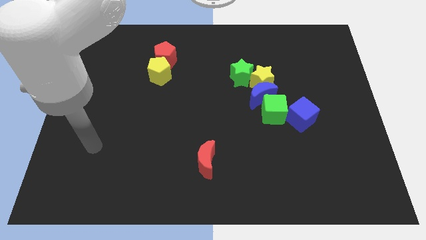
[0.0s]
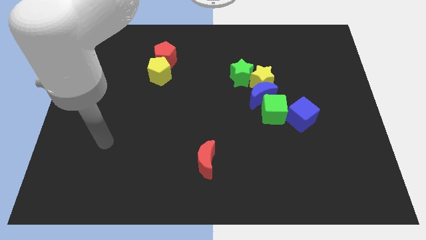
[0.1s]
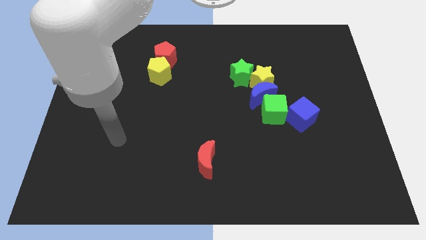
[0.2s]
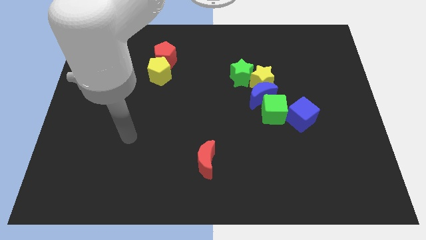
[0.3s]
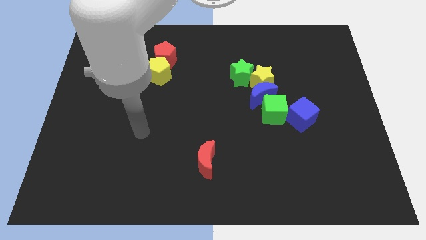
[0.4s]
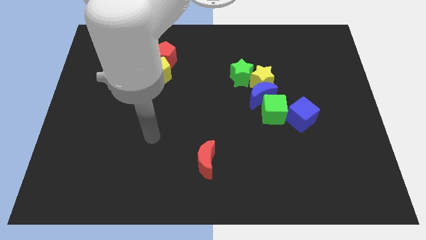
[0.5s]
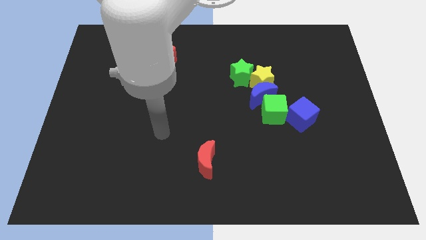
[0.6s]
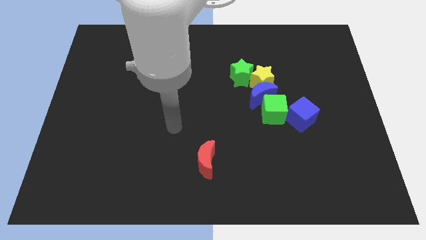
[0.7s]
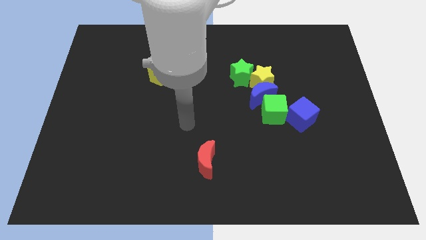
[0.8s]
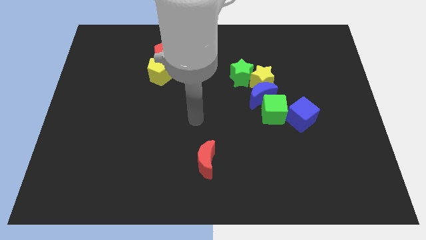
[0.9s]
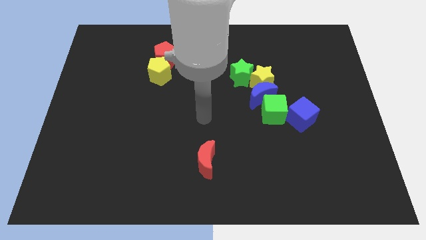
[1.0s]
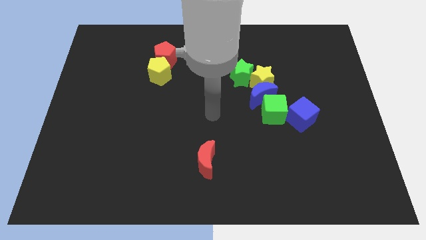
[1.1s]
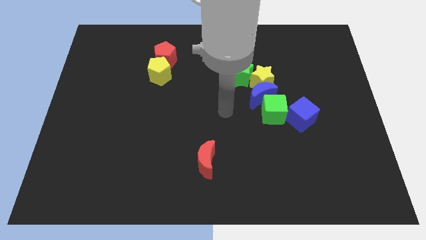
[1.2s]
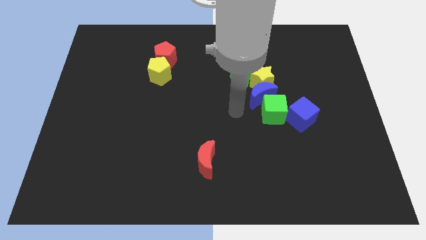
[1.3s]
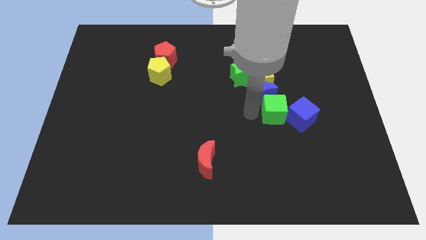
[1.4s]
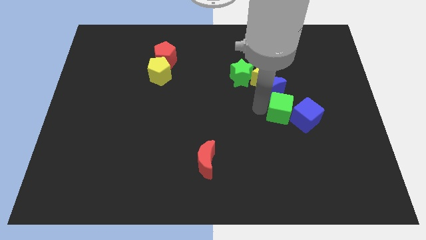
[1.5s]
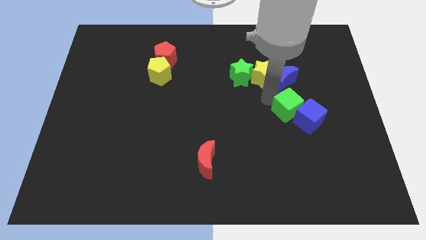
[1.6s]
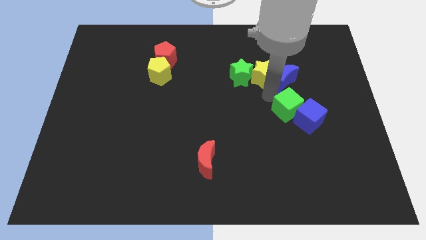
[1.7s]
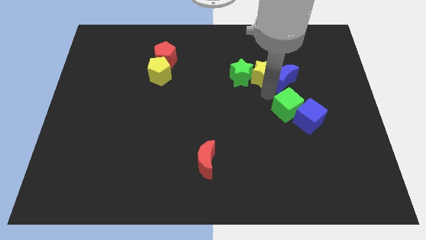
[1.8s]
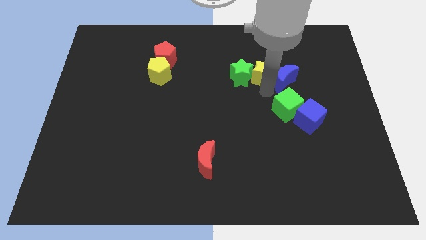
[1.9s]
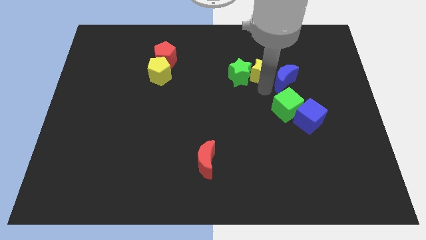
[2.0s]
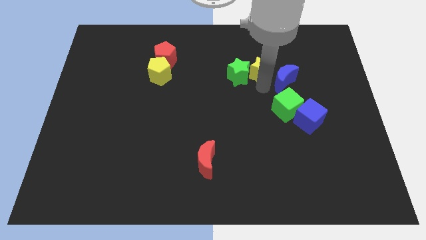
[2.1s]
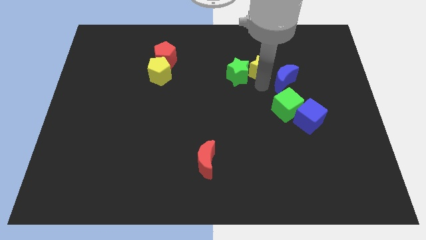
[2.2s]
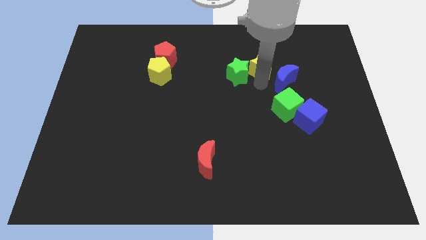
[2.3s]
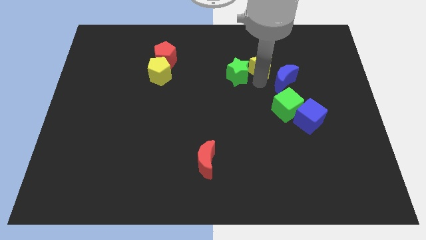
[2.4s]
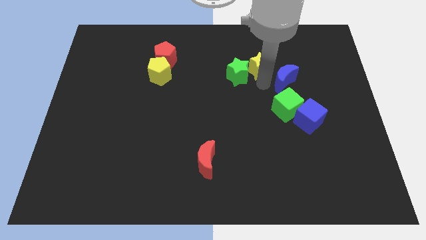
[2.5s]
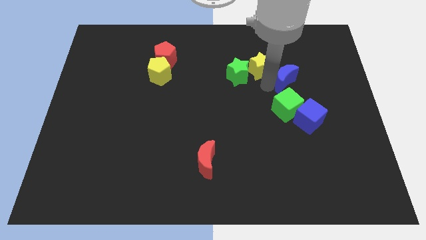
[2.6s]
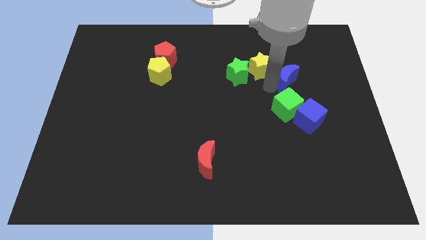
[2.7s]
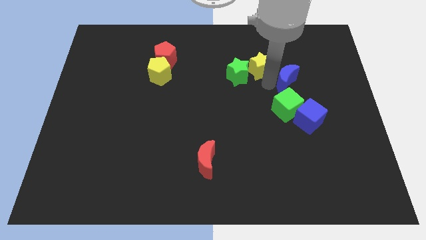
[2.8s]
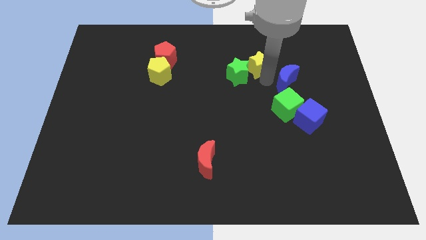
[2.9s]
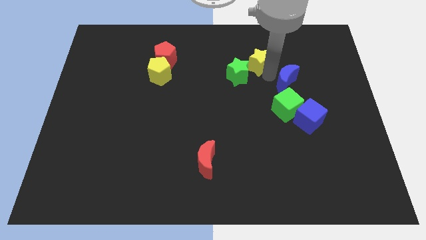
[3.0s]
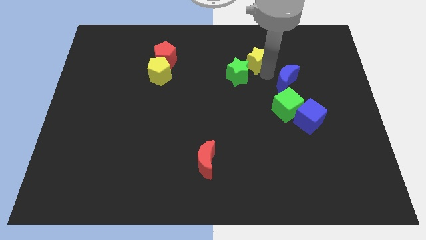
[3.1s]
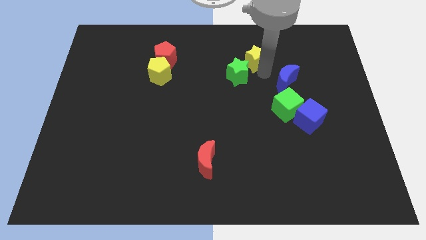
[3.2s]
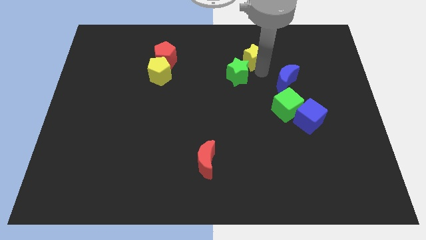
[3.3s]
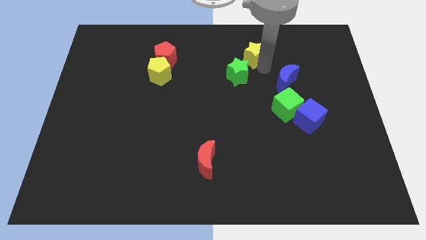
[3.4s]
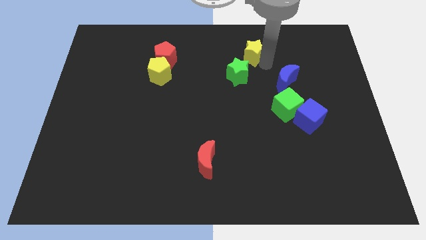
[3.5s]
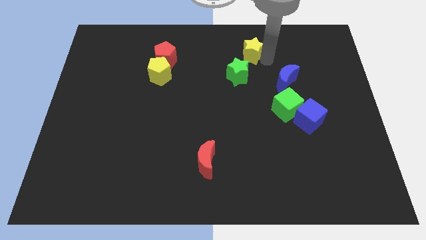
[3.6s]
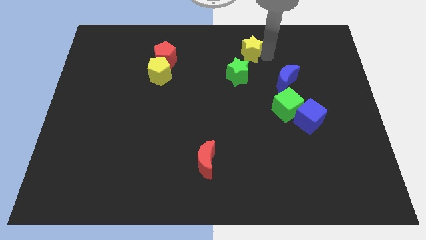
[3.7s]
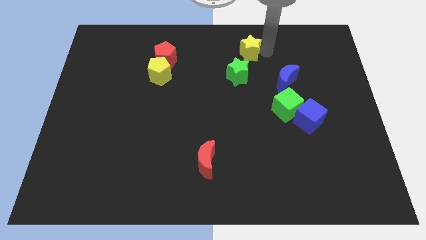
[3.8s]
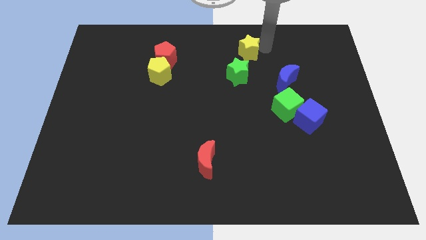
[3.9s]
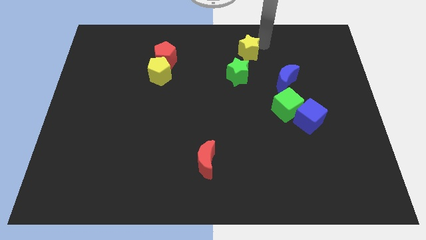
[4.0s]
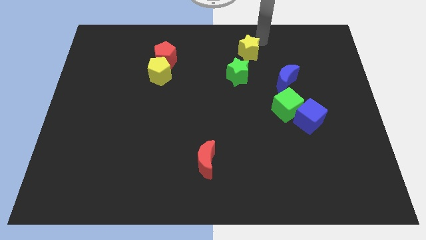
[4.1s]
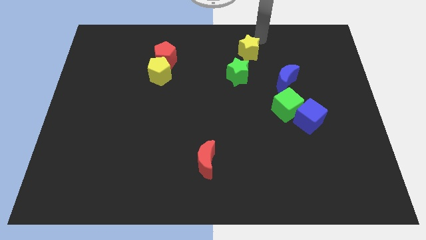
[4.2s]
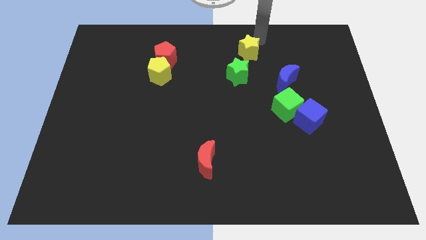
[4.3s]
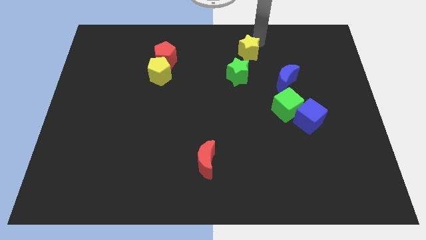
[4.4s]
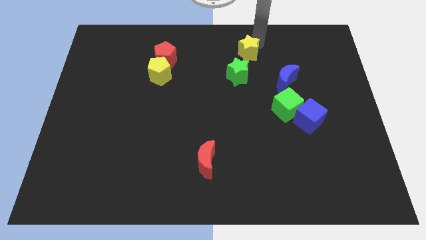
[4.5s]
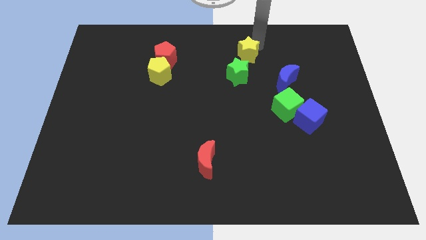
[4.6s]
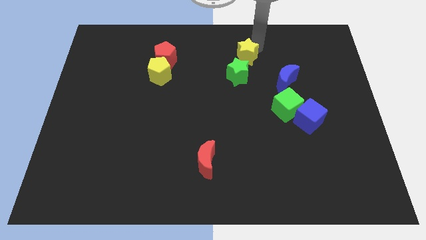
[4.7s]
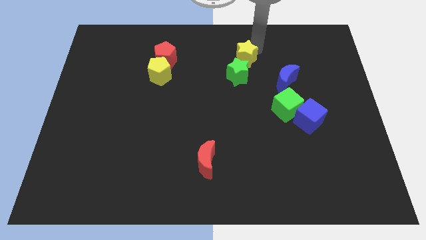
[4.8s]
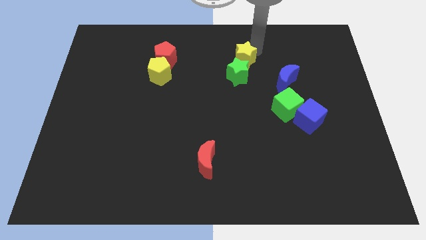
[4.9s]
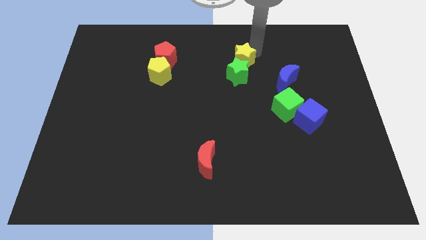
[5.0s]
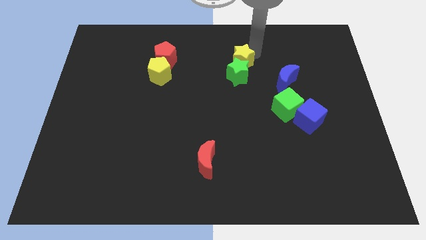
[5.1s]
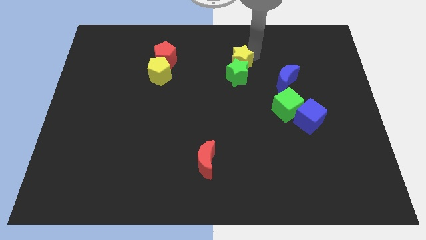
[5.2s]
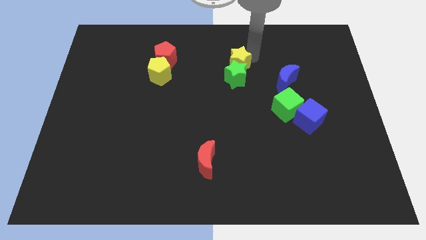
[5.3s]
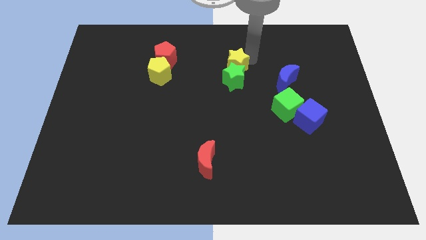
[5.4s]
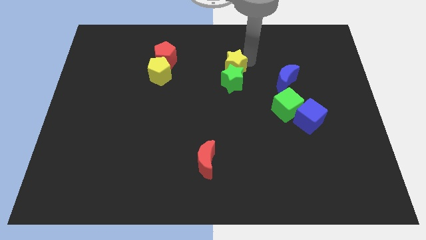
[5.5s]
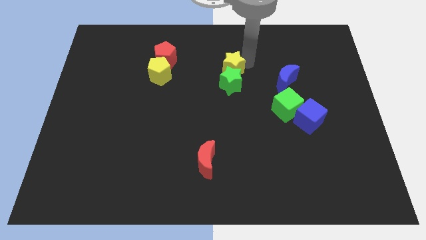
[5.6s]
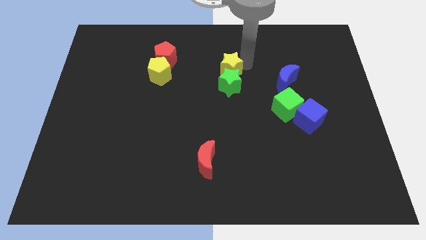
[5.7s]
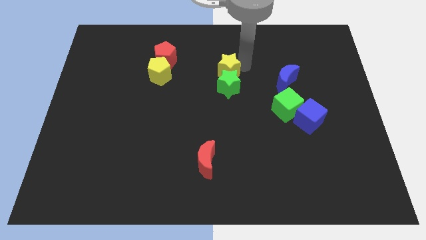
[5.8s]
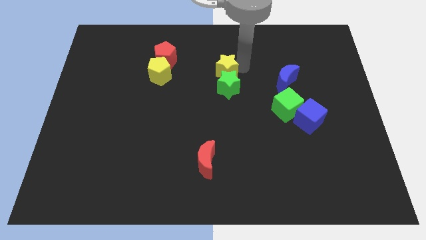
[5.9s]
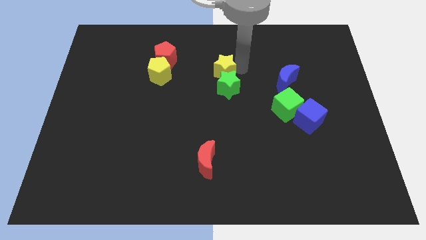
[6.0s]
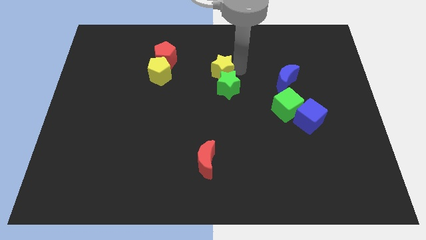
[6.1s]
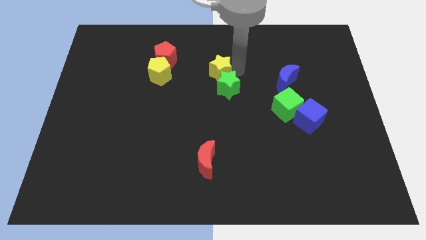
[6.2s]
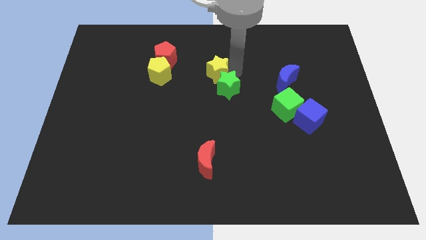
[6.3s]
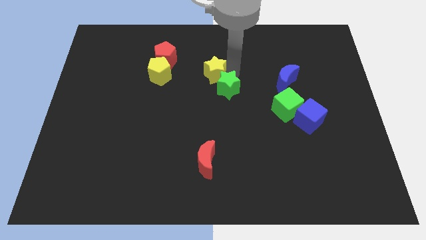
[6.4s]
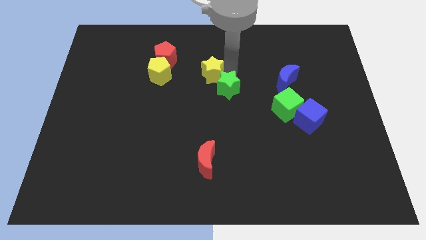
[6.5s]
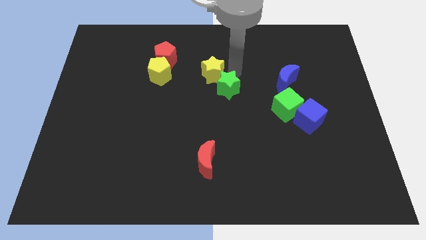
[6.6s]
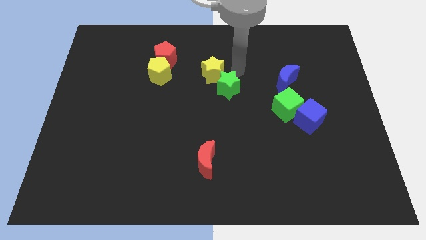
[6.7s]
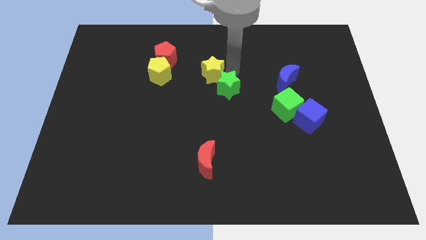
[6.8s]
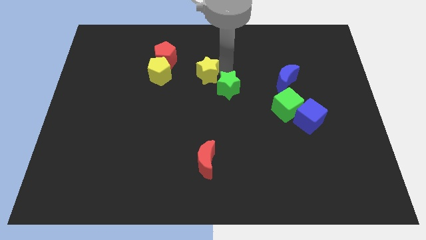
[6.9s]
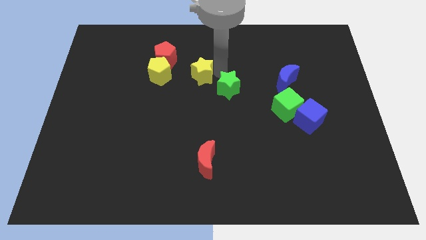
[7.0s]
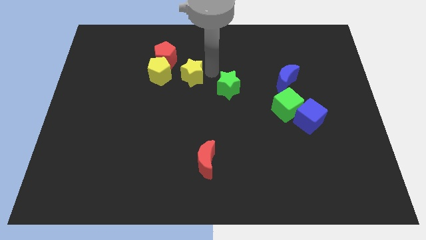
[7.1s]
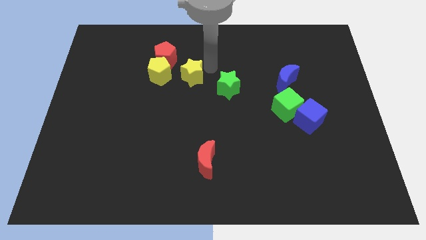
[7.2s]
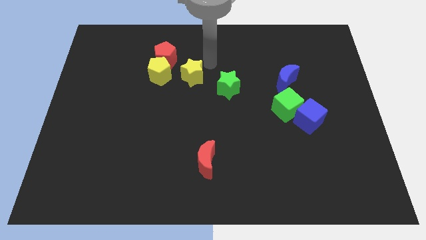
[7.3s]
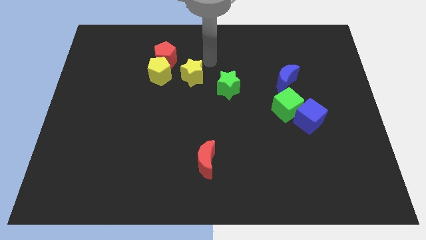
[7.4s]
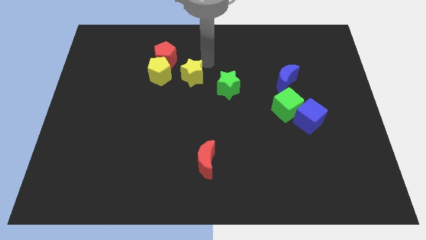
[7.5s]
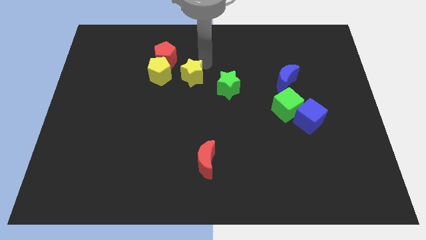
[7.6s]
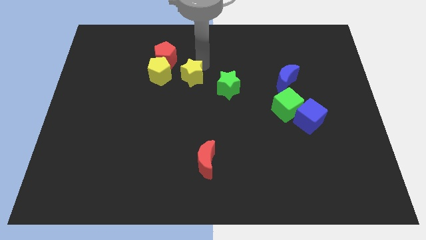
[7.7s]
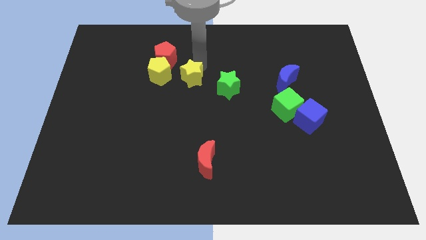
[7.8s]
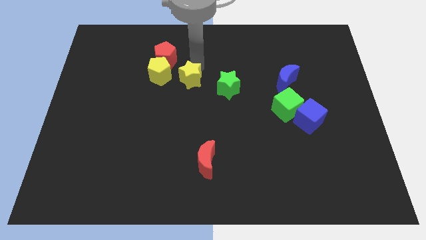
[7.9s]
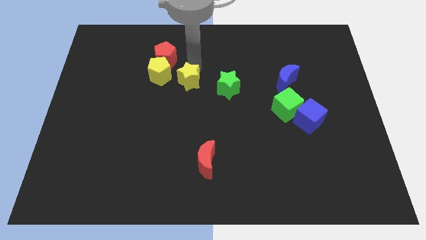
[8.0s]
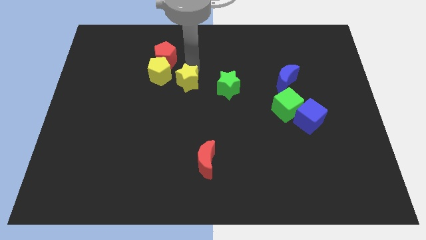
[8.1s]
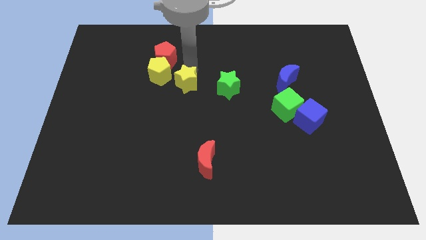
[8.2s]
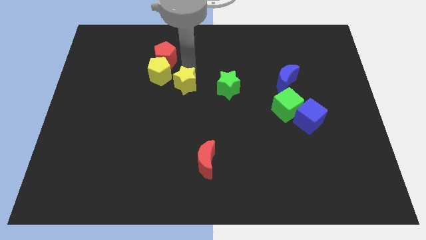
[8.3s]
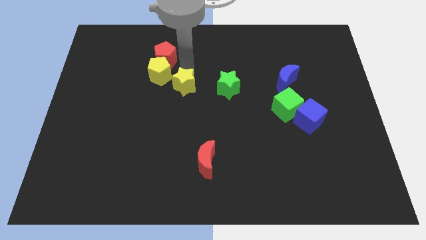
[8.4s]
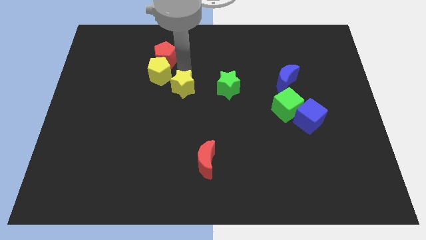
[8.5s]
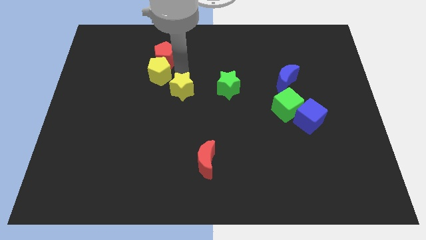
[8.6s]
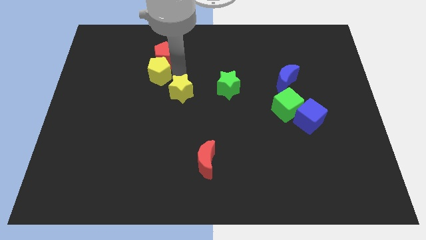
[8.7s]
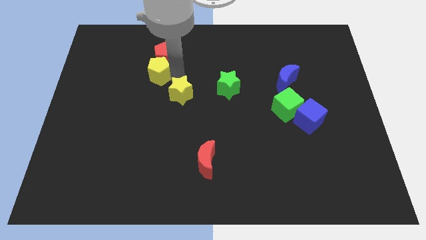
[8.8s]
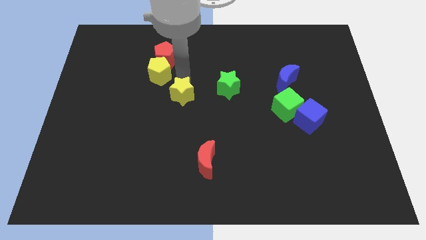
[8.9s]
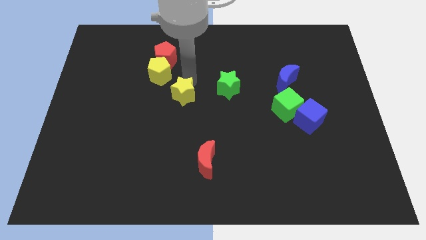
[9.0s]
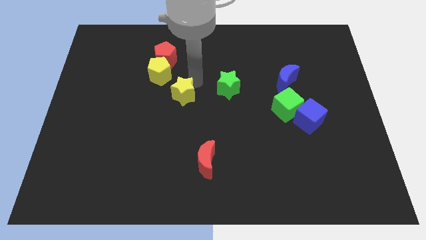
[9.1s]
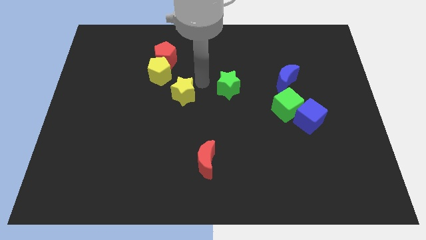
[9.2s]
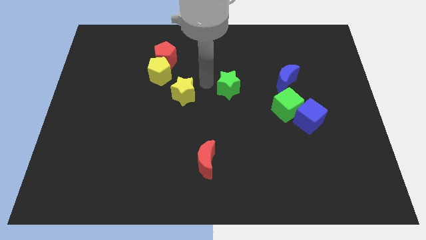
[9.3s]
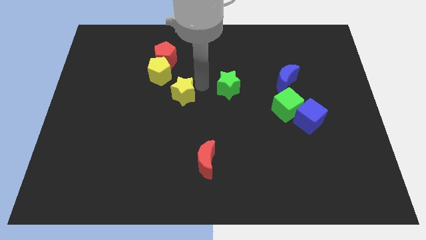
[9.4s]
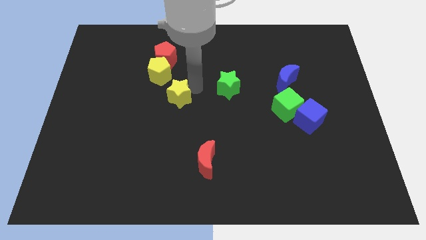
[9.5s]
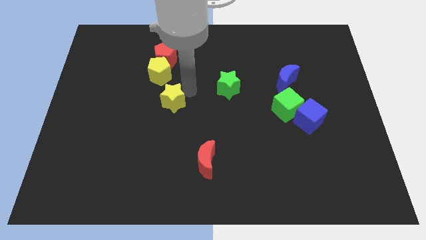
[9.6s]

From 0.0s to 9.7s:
slide the yellow star below the yellow pentagon
